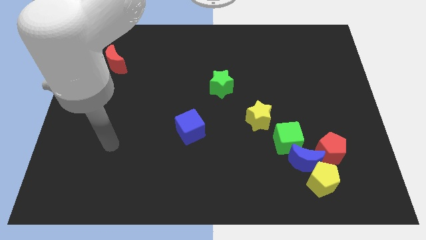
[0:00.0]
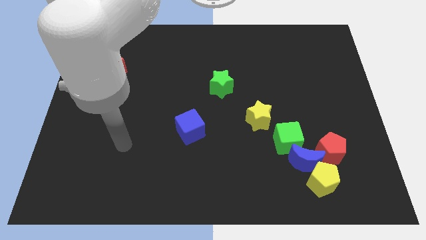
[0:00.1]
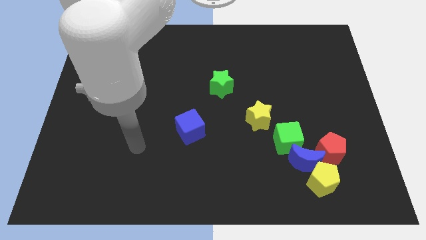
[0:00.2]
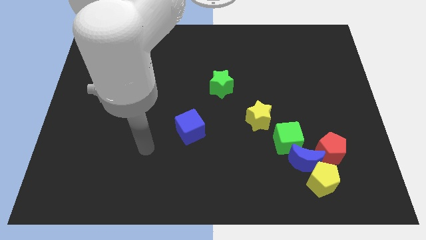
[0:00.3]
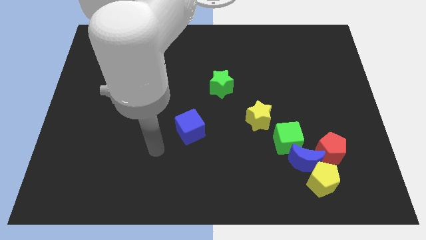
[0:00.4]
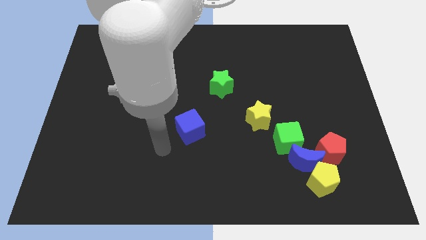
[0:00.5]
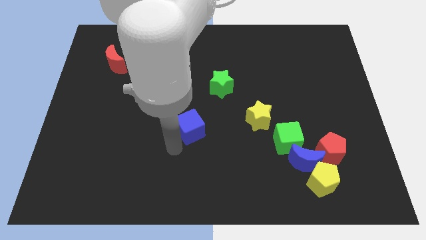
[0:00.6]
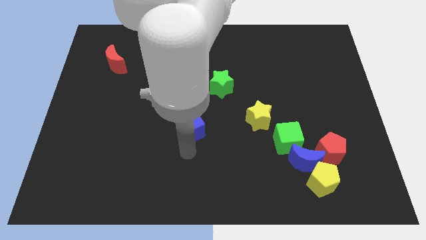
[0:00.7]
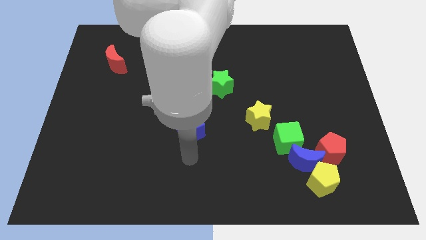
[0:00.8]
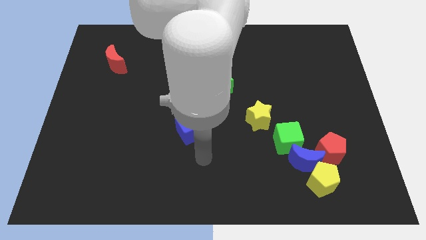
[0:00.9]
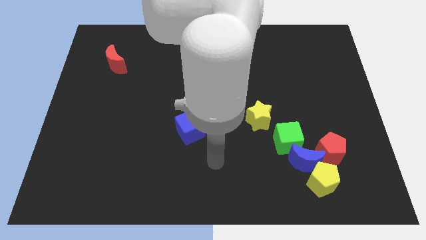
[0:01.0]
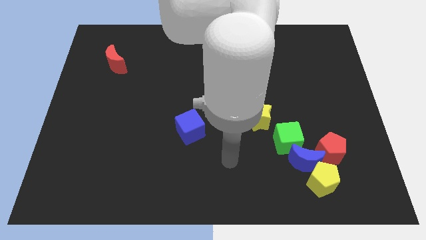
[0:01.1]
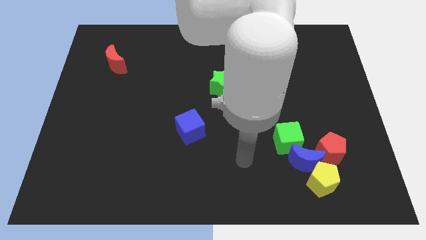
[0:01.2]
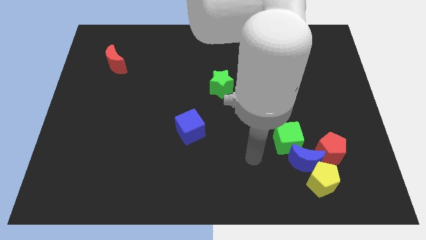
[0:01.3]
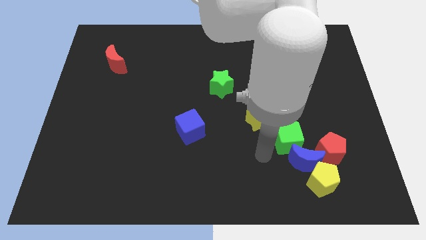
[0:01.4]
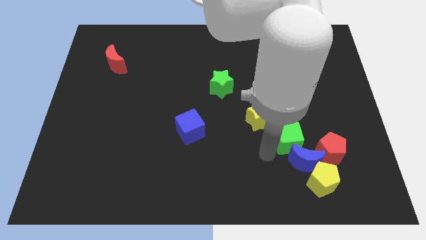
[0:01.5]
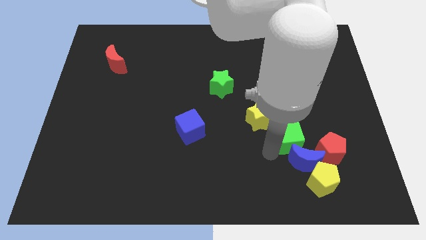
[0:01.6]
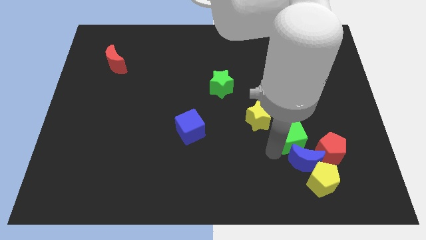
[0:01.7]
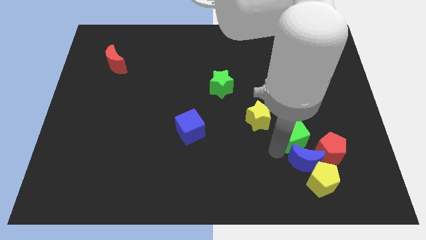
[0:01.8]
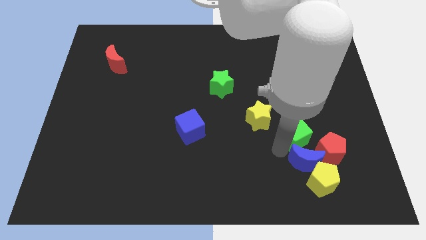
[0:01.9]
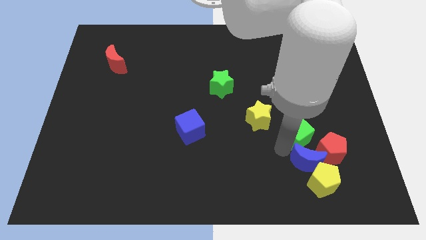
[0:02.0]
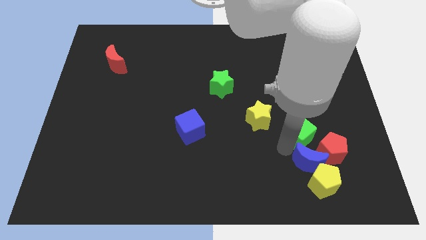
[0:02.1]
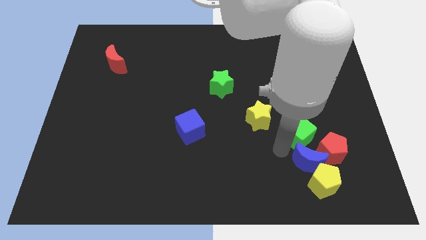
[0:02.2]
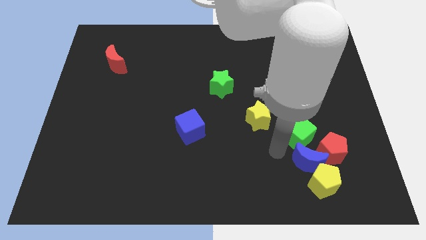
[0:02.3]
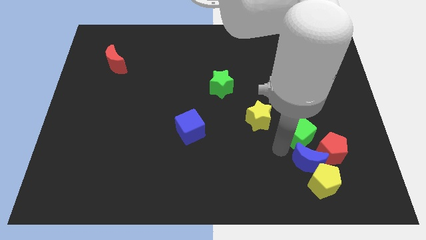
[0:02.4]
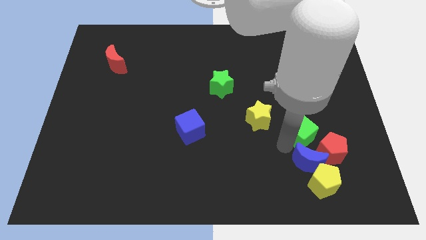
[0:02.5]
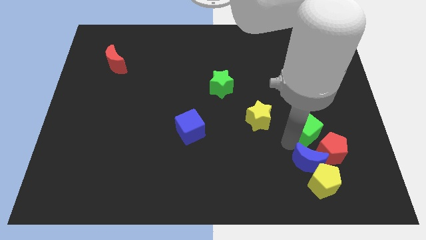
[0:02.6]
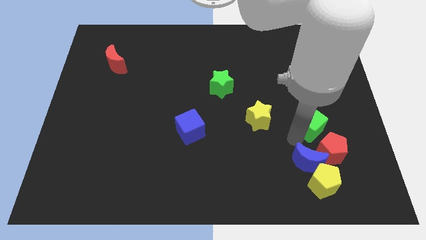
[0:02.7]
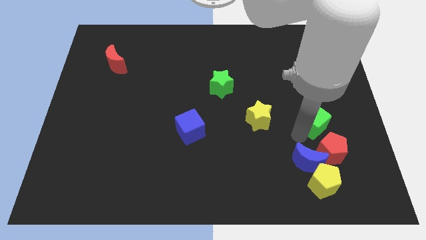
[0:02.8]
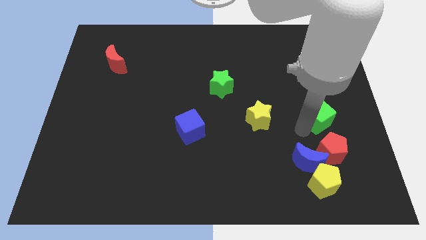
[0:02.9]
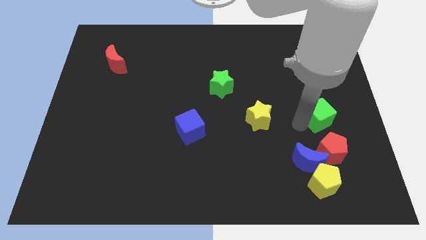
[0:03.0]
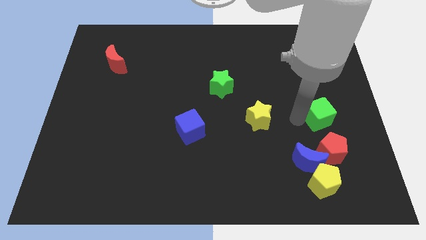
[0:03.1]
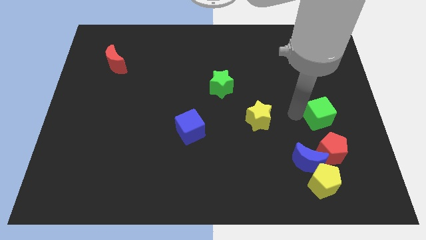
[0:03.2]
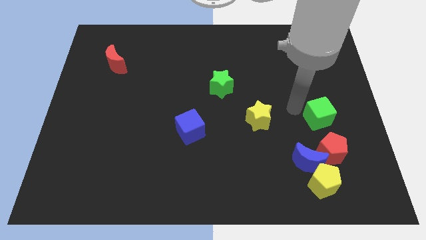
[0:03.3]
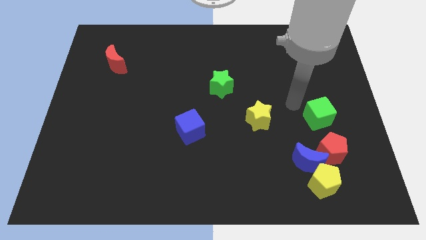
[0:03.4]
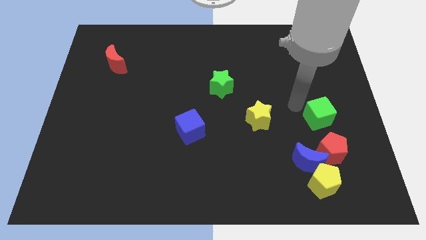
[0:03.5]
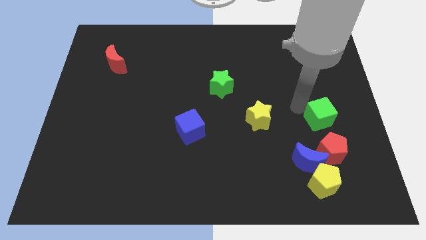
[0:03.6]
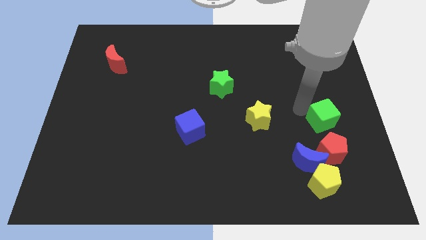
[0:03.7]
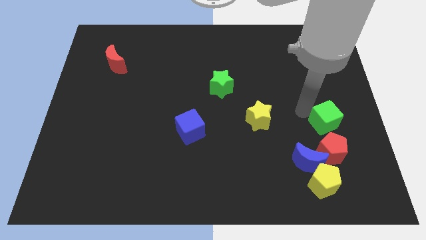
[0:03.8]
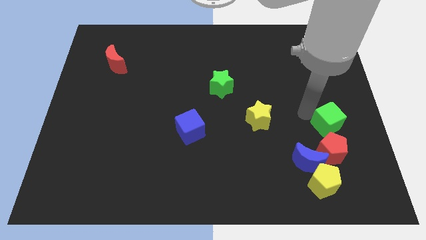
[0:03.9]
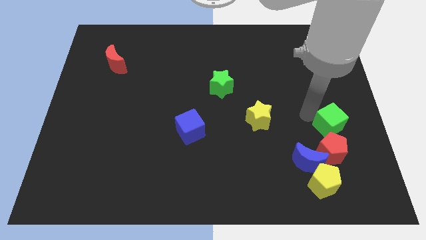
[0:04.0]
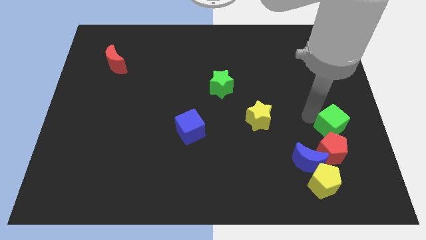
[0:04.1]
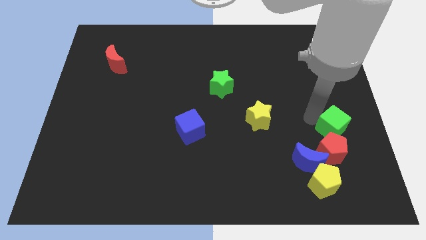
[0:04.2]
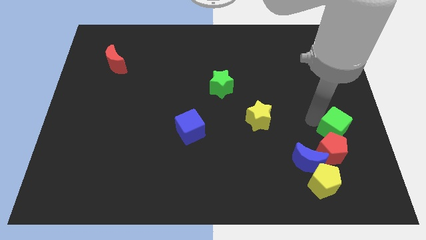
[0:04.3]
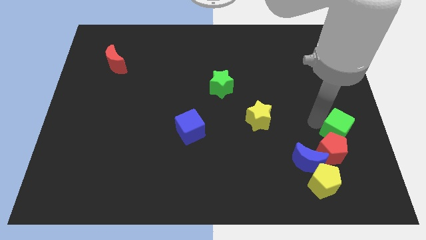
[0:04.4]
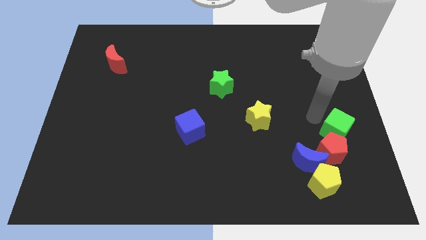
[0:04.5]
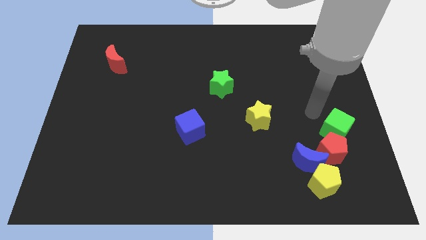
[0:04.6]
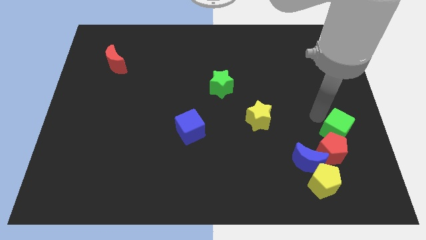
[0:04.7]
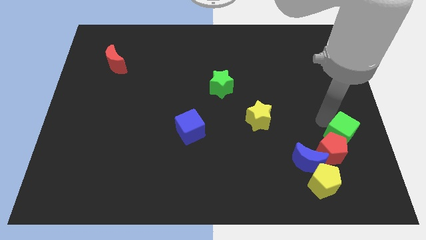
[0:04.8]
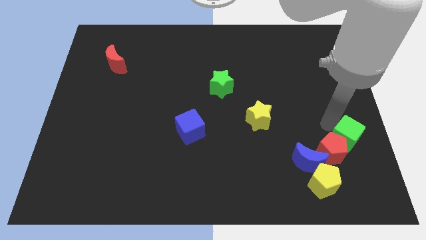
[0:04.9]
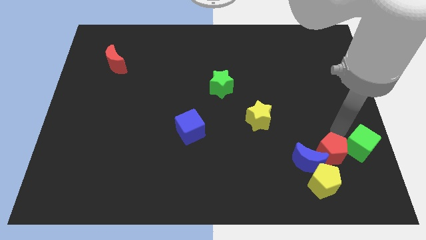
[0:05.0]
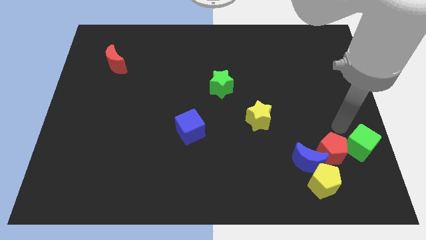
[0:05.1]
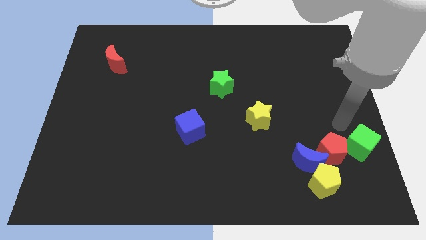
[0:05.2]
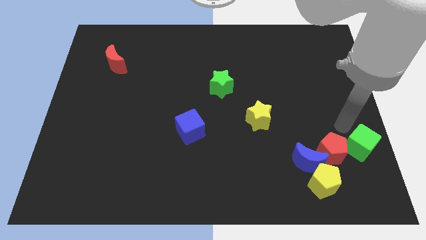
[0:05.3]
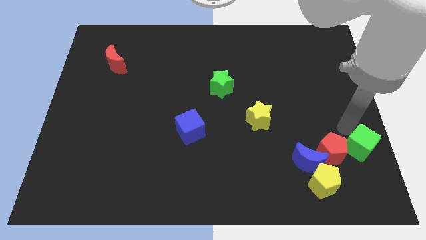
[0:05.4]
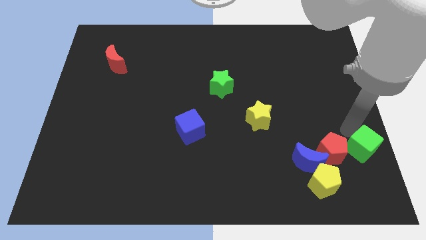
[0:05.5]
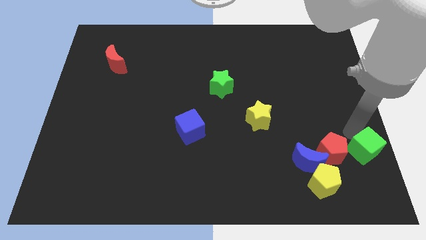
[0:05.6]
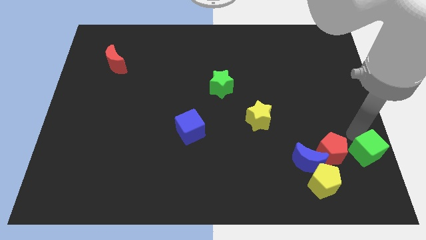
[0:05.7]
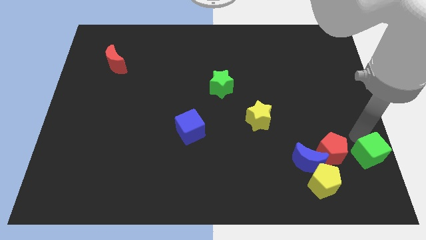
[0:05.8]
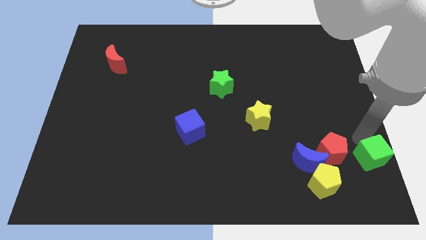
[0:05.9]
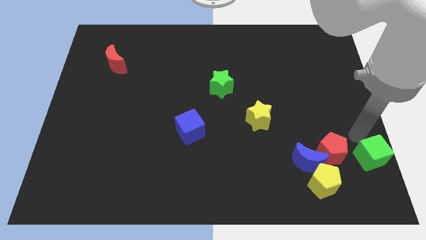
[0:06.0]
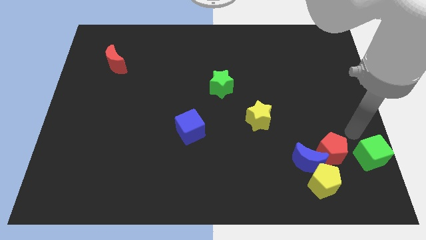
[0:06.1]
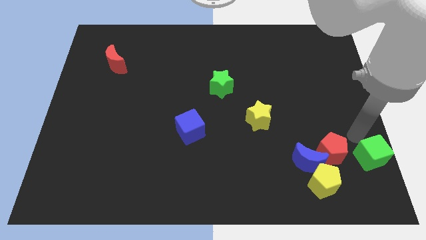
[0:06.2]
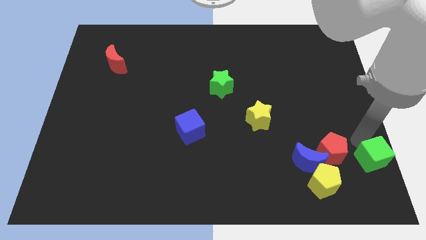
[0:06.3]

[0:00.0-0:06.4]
push the green cube to the bottom right of the board
